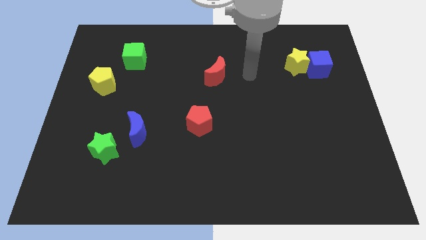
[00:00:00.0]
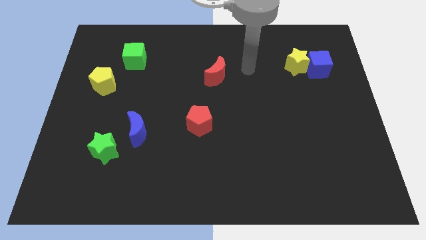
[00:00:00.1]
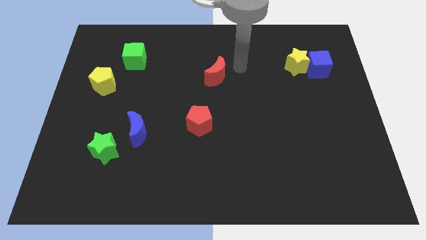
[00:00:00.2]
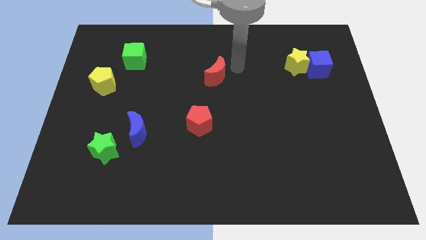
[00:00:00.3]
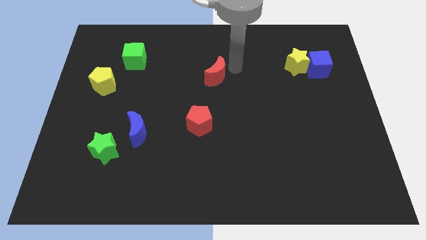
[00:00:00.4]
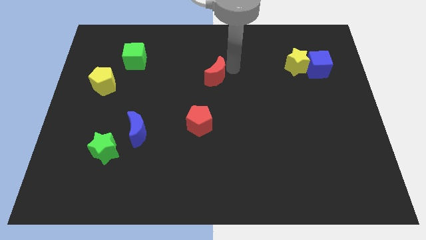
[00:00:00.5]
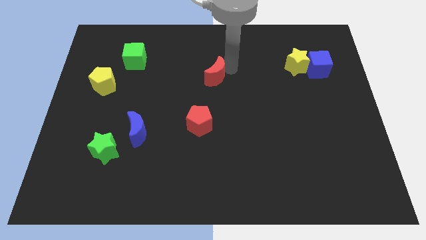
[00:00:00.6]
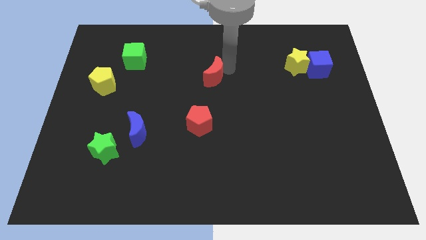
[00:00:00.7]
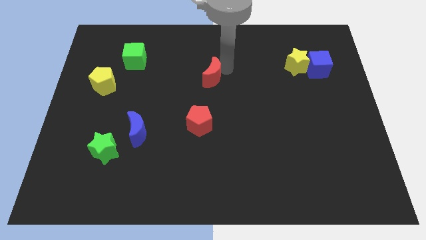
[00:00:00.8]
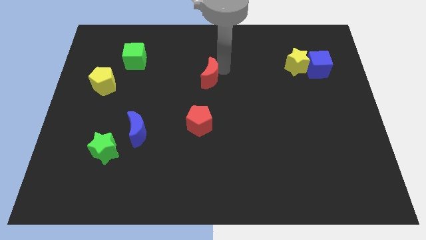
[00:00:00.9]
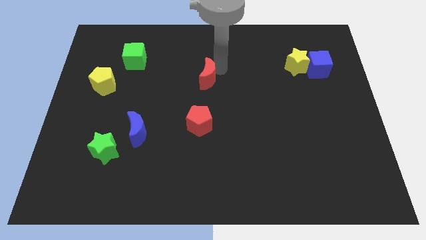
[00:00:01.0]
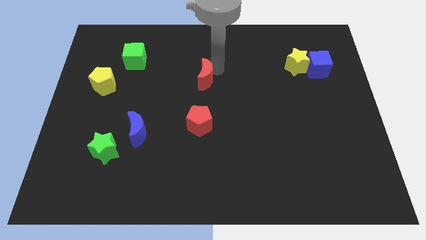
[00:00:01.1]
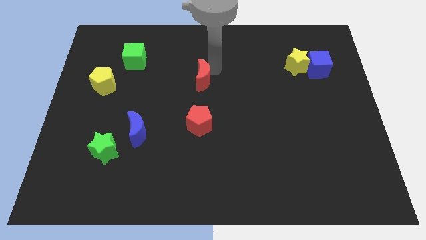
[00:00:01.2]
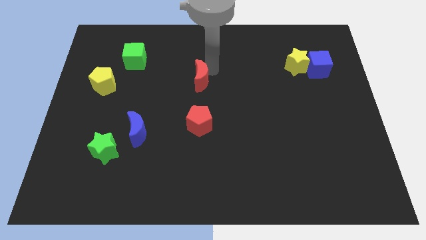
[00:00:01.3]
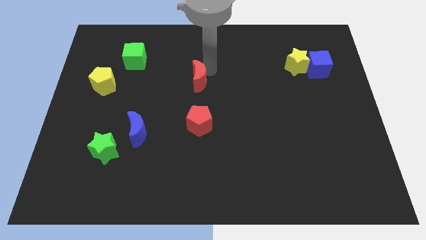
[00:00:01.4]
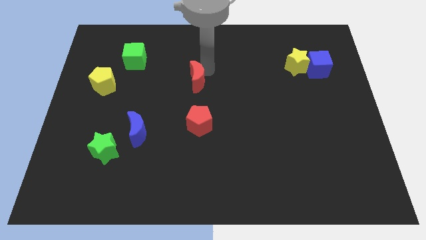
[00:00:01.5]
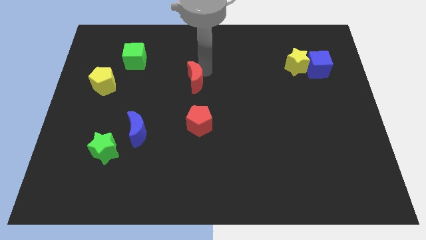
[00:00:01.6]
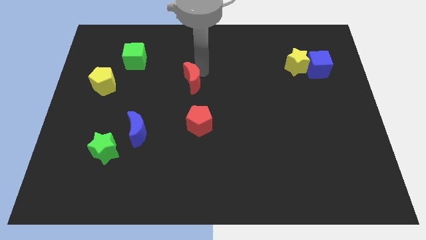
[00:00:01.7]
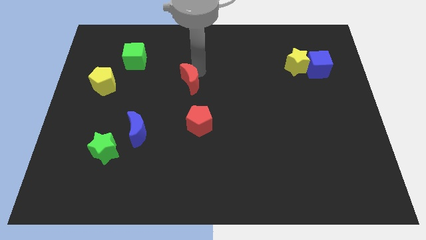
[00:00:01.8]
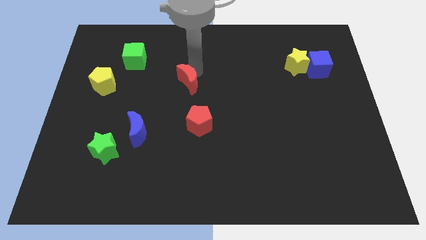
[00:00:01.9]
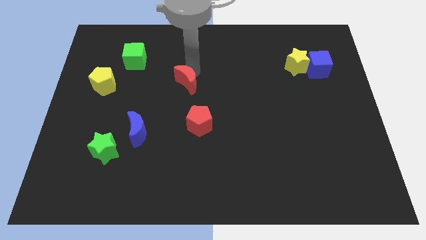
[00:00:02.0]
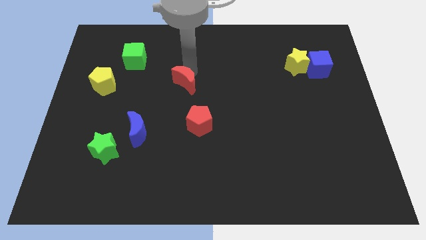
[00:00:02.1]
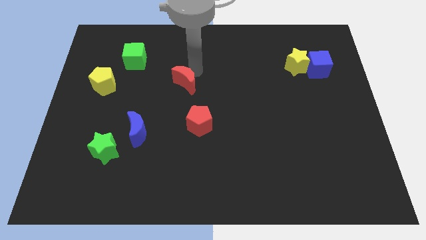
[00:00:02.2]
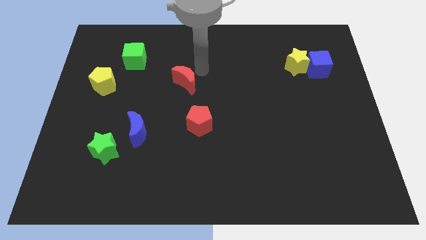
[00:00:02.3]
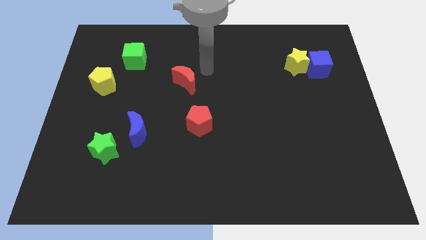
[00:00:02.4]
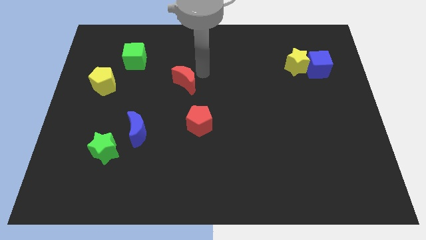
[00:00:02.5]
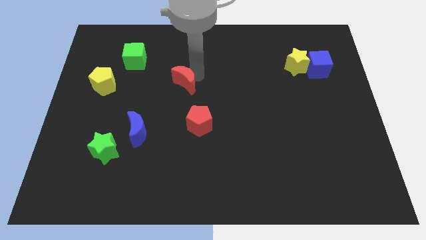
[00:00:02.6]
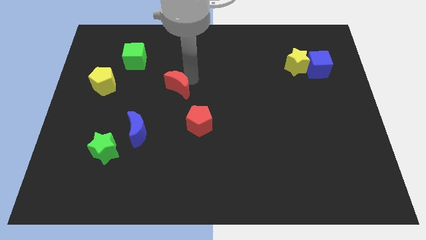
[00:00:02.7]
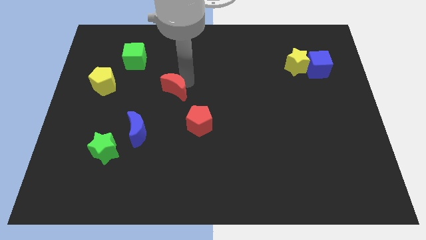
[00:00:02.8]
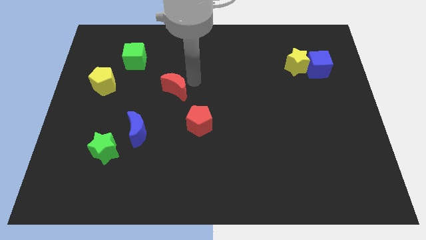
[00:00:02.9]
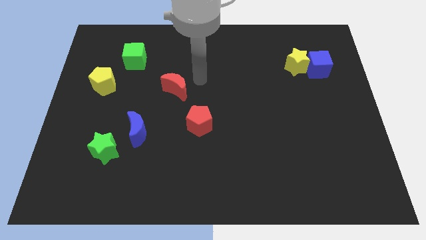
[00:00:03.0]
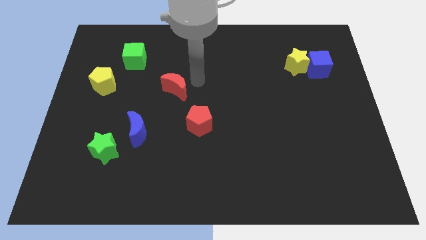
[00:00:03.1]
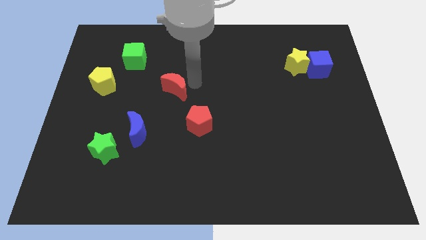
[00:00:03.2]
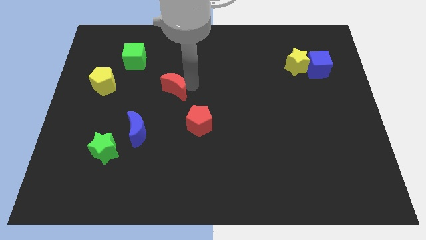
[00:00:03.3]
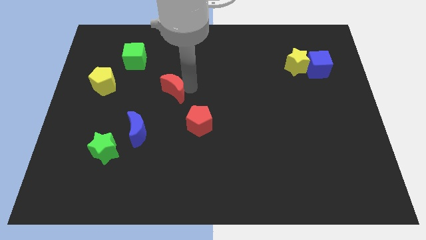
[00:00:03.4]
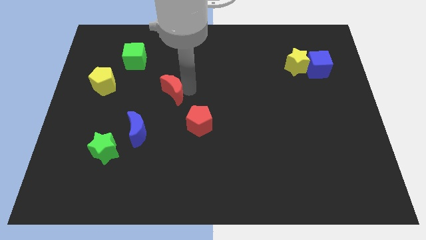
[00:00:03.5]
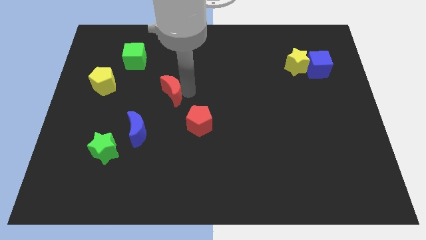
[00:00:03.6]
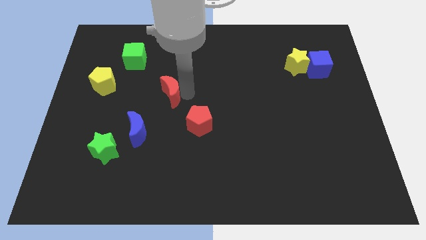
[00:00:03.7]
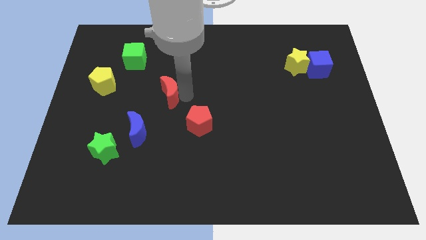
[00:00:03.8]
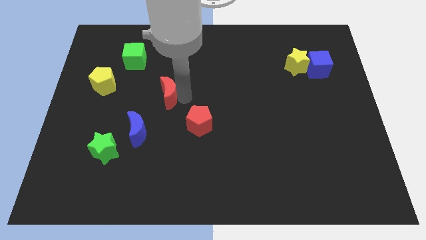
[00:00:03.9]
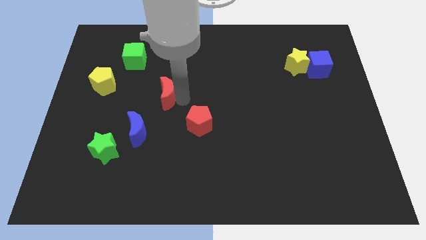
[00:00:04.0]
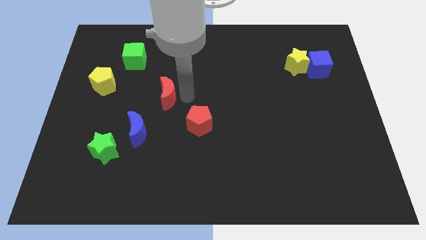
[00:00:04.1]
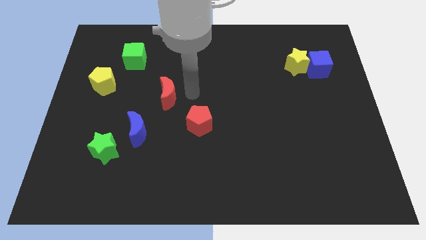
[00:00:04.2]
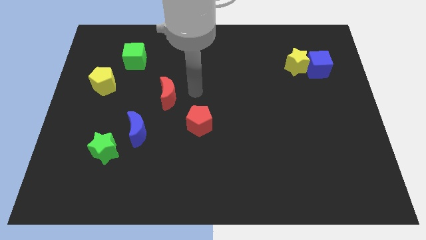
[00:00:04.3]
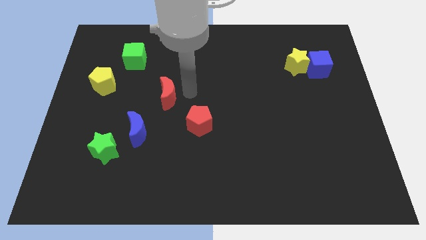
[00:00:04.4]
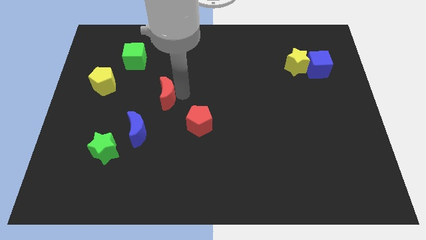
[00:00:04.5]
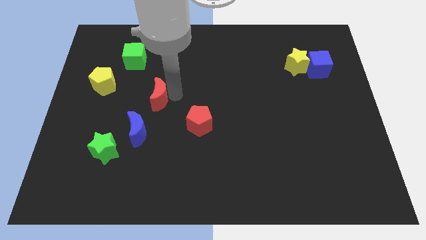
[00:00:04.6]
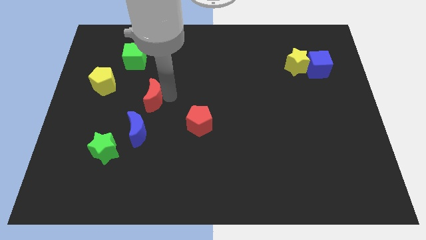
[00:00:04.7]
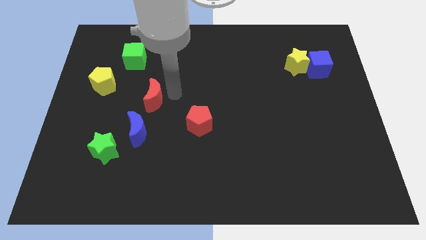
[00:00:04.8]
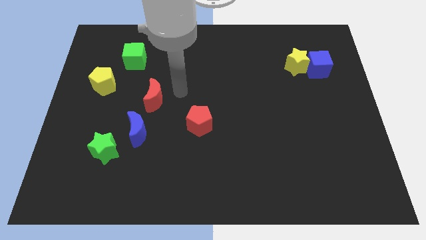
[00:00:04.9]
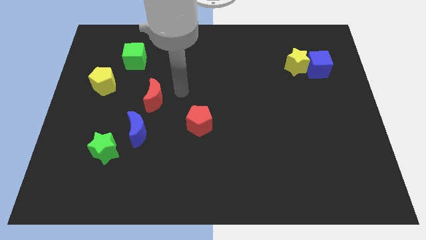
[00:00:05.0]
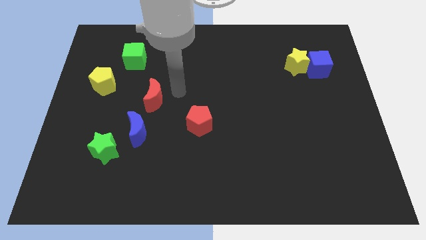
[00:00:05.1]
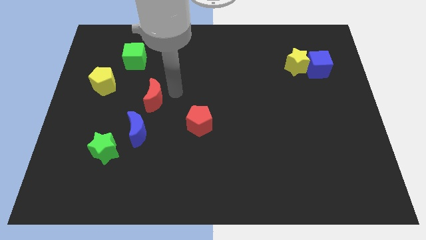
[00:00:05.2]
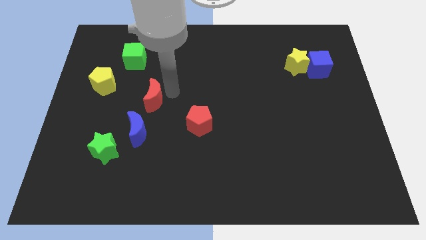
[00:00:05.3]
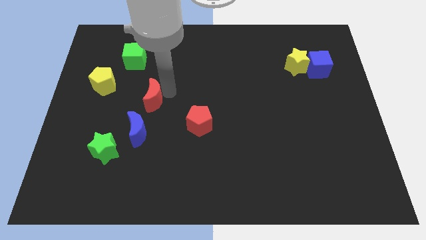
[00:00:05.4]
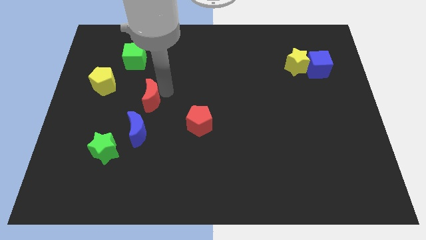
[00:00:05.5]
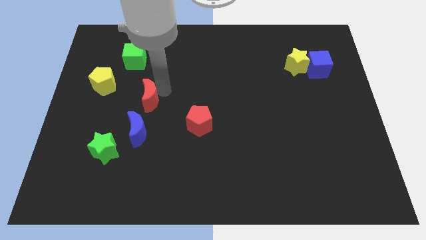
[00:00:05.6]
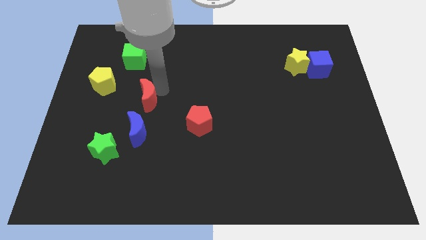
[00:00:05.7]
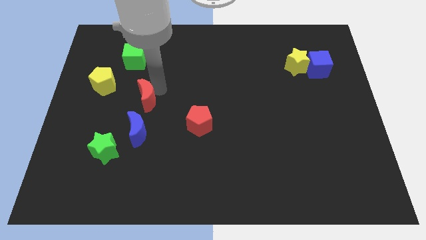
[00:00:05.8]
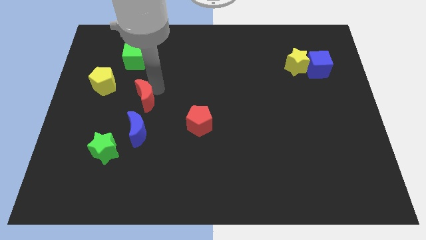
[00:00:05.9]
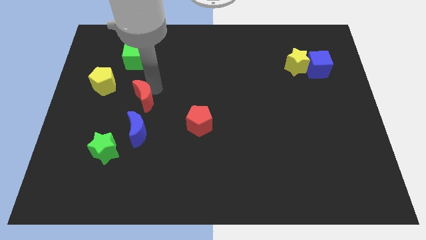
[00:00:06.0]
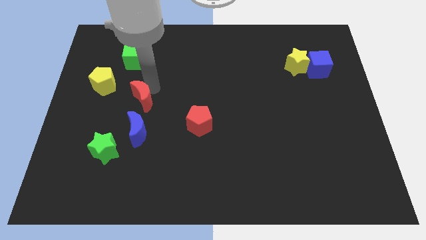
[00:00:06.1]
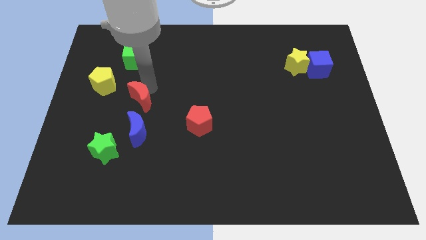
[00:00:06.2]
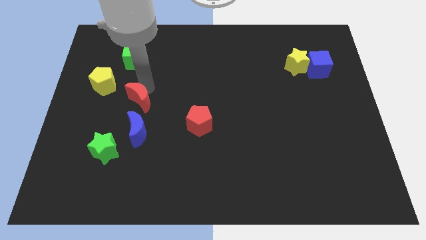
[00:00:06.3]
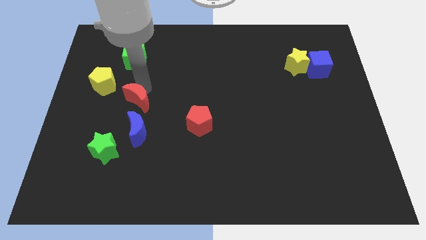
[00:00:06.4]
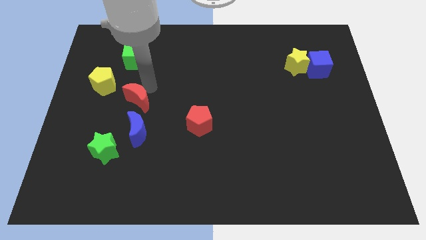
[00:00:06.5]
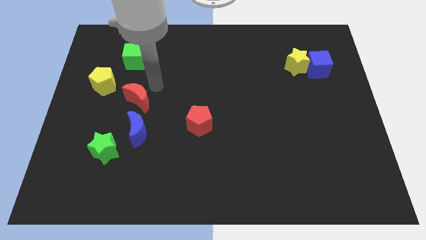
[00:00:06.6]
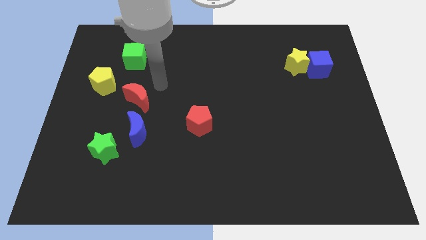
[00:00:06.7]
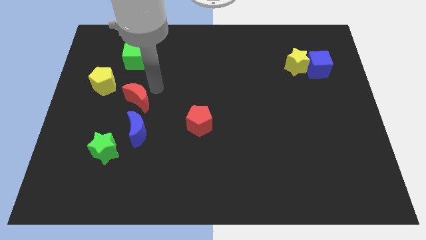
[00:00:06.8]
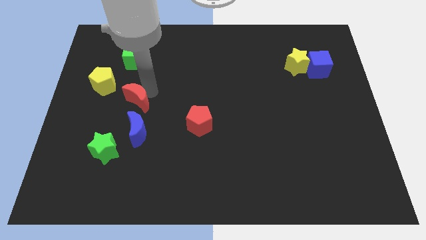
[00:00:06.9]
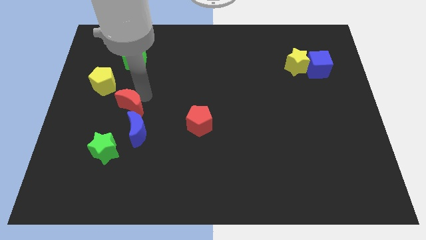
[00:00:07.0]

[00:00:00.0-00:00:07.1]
put the red moon to the top left of the blue moon
